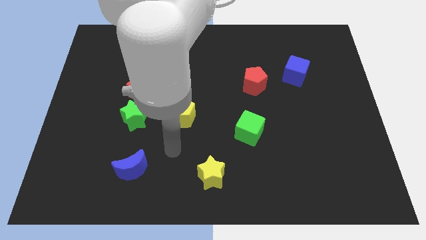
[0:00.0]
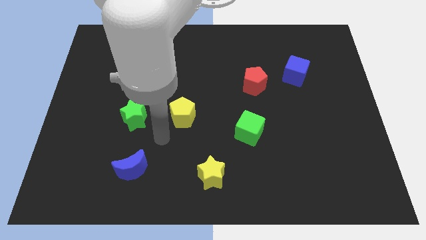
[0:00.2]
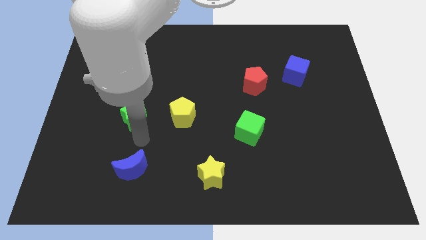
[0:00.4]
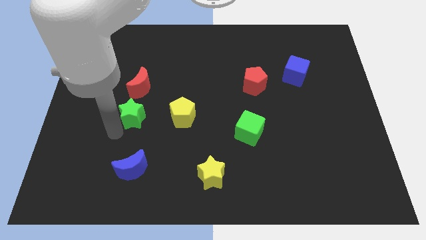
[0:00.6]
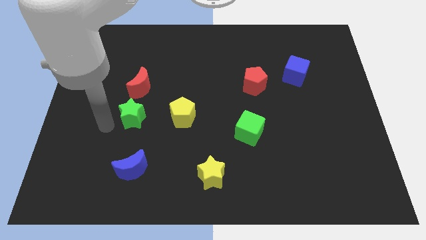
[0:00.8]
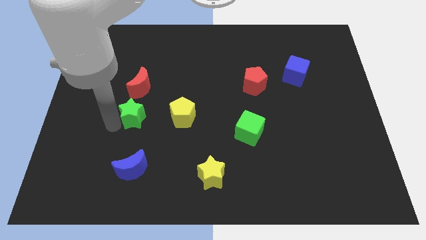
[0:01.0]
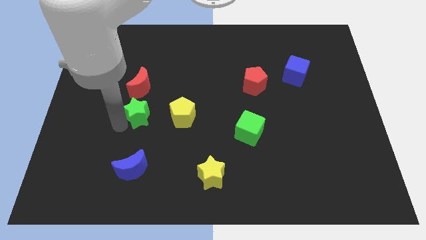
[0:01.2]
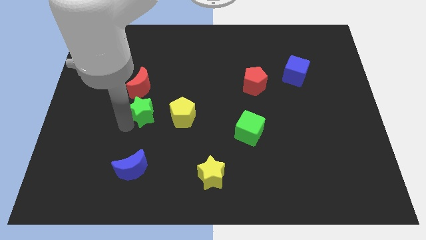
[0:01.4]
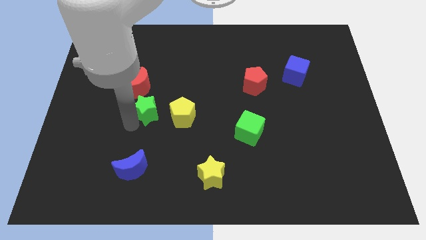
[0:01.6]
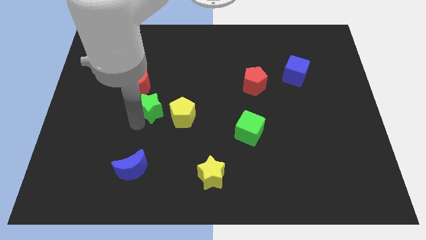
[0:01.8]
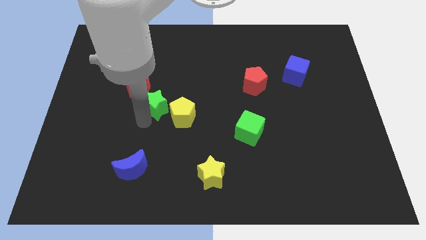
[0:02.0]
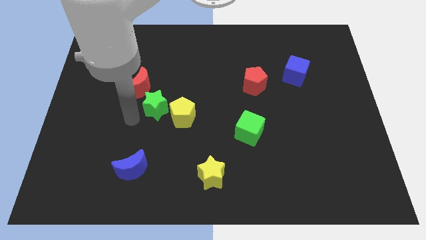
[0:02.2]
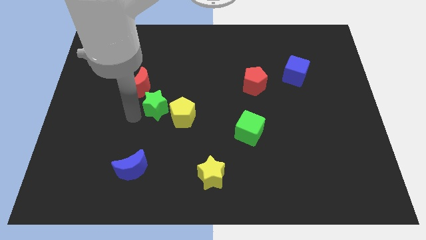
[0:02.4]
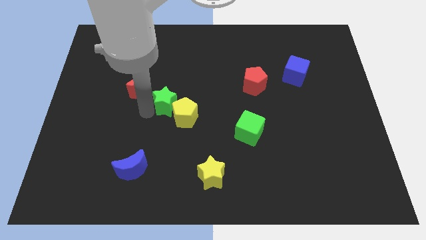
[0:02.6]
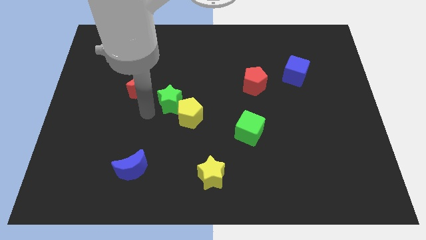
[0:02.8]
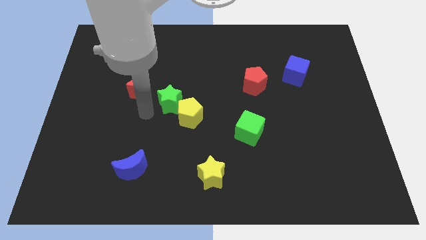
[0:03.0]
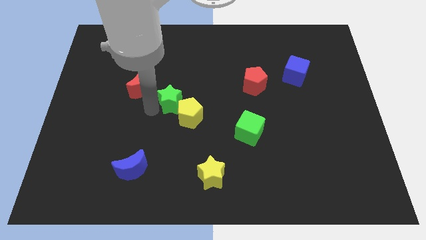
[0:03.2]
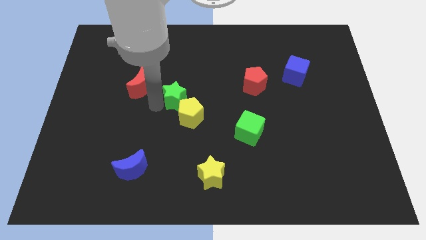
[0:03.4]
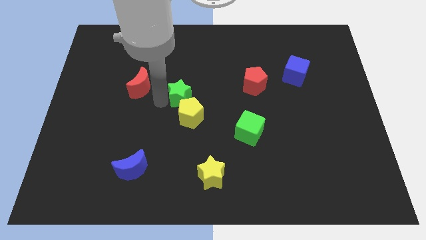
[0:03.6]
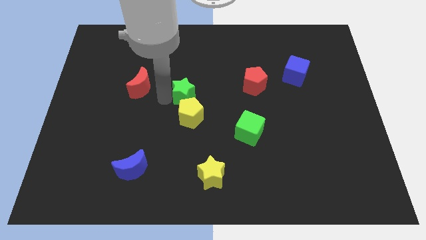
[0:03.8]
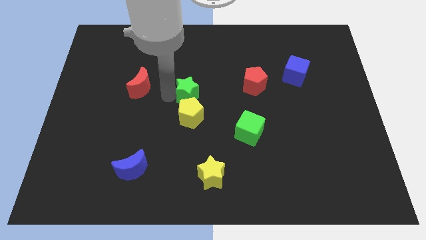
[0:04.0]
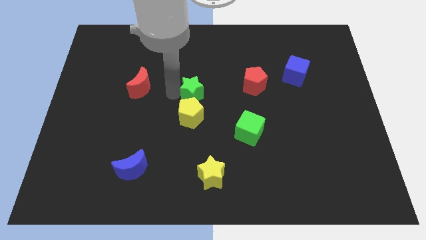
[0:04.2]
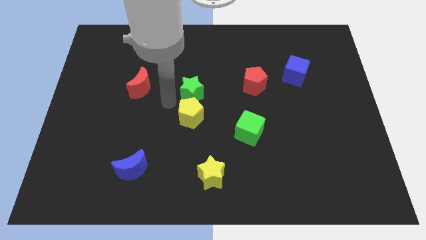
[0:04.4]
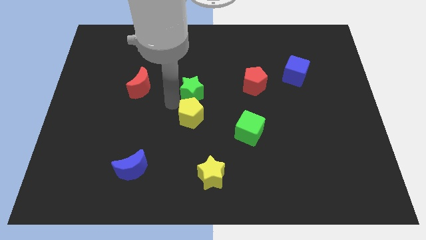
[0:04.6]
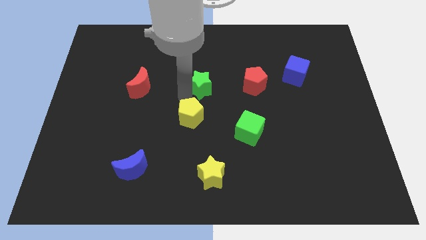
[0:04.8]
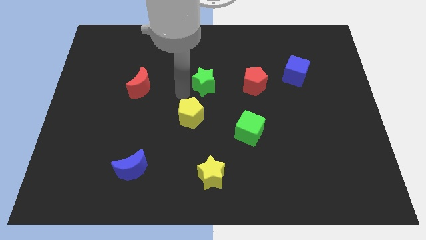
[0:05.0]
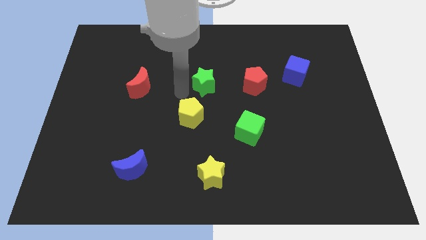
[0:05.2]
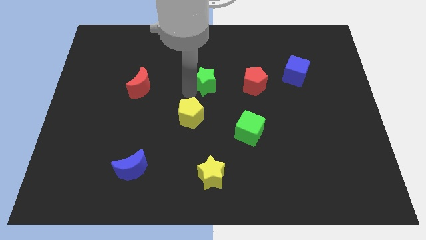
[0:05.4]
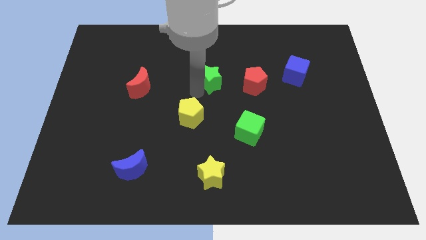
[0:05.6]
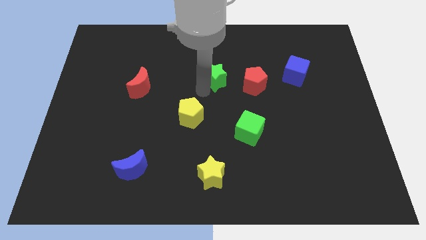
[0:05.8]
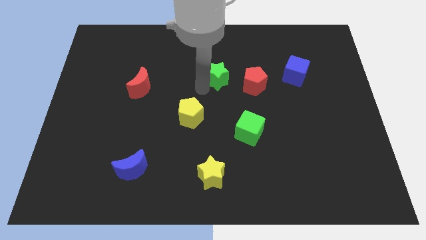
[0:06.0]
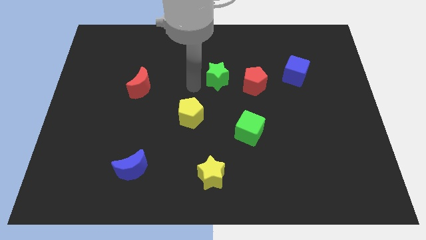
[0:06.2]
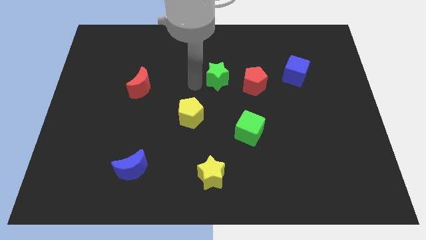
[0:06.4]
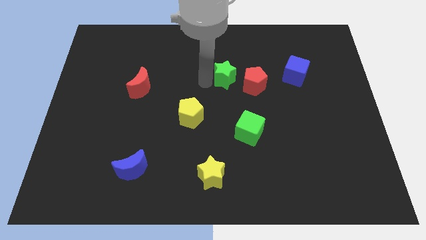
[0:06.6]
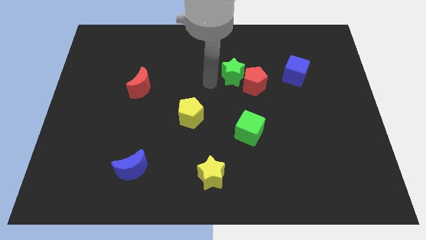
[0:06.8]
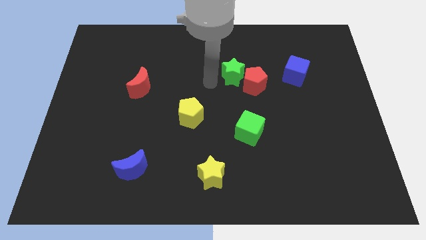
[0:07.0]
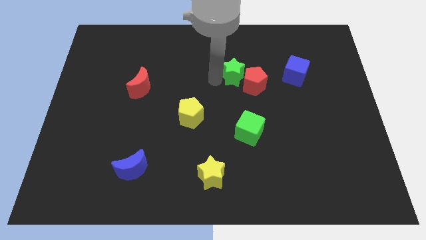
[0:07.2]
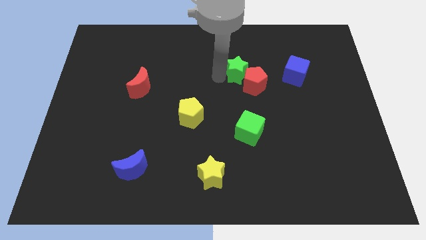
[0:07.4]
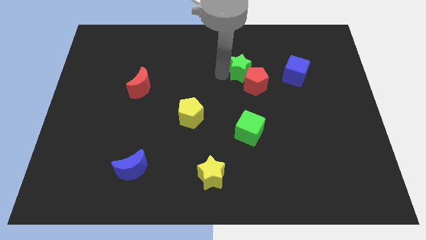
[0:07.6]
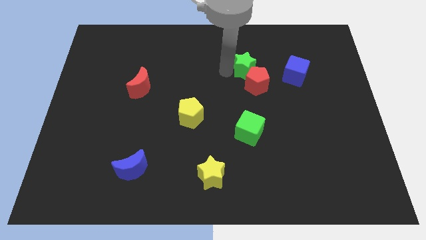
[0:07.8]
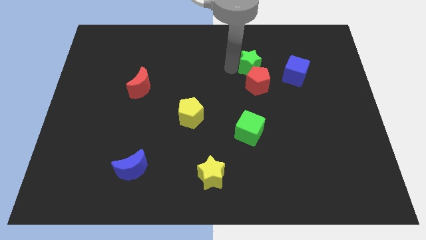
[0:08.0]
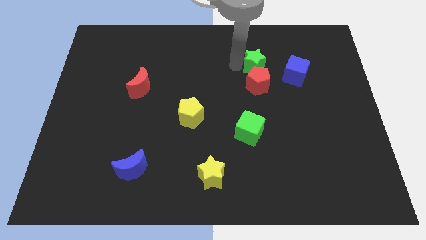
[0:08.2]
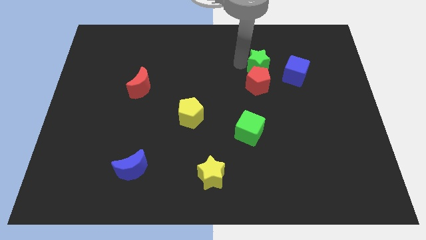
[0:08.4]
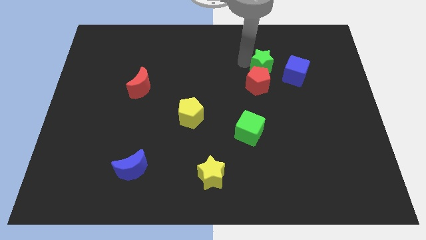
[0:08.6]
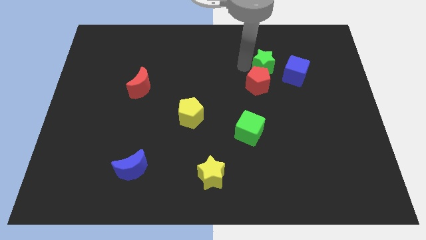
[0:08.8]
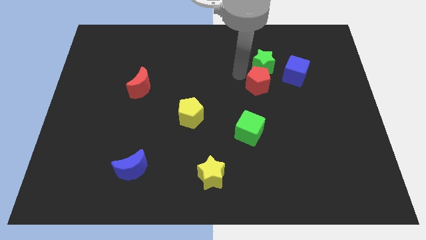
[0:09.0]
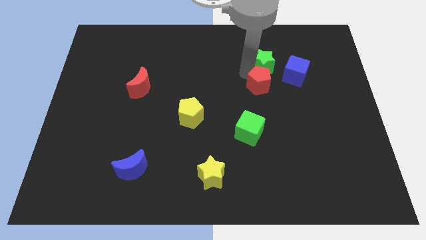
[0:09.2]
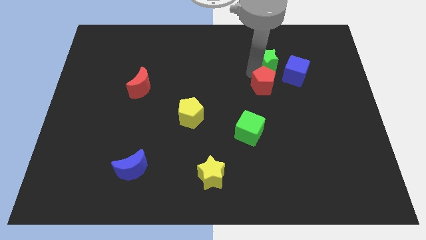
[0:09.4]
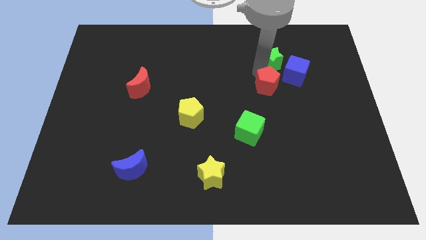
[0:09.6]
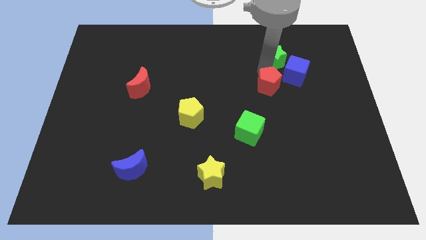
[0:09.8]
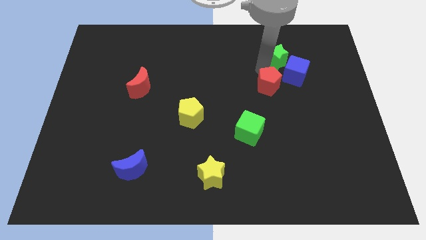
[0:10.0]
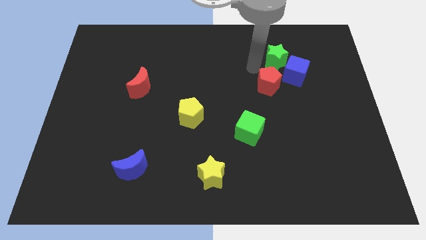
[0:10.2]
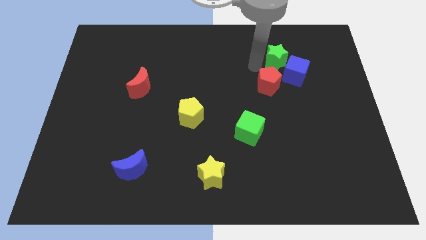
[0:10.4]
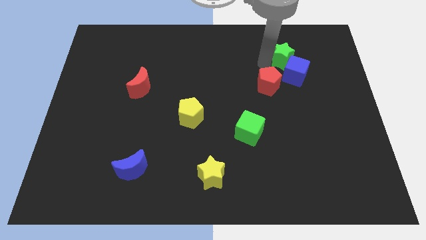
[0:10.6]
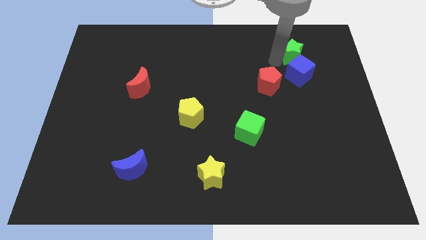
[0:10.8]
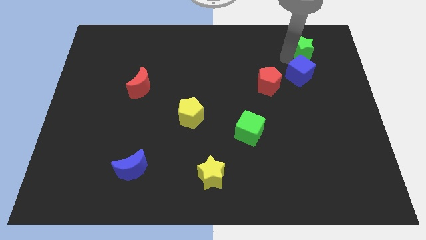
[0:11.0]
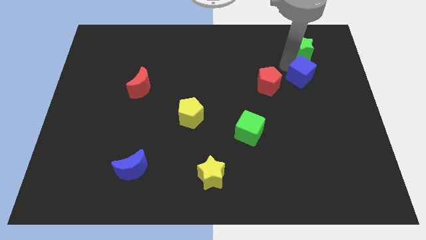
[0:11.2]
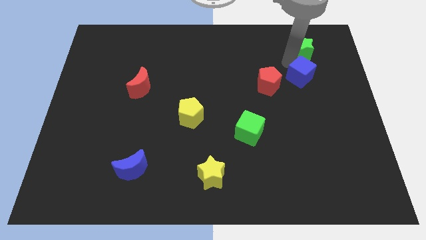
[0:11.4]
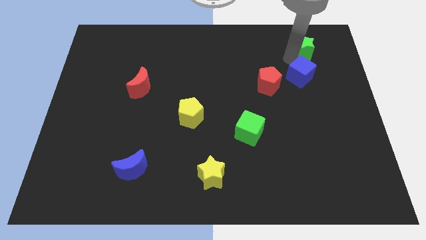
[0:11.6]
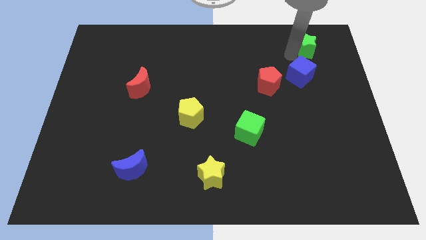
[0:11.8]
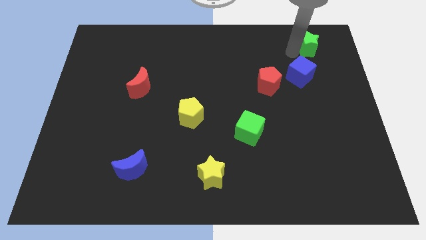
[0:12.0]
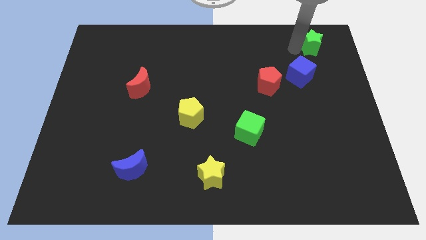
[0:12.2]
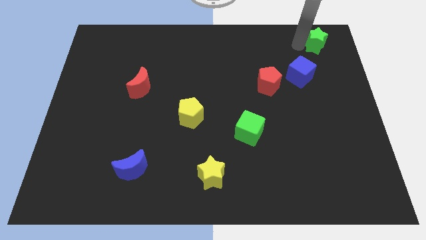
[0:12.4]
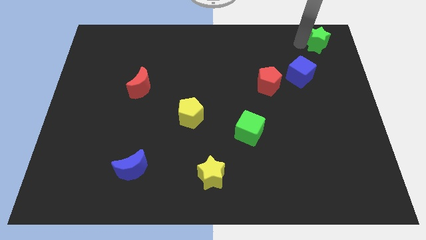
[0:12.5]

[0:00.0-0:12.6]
move the green star to the top right of the board

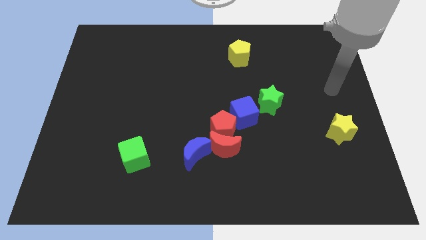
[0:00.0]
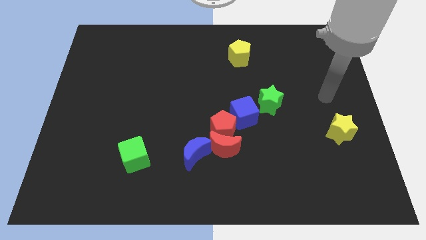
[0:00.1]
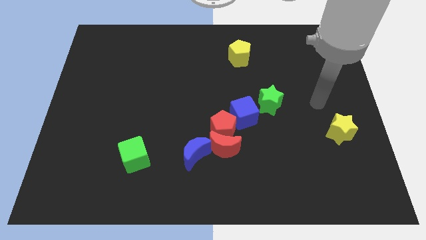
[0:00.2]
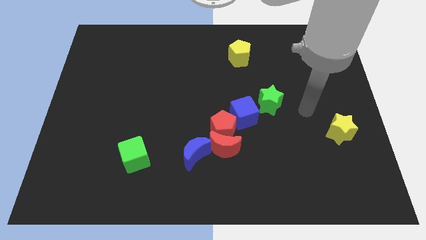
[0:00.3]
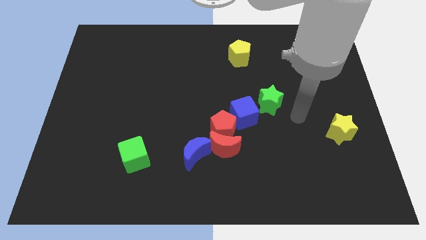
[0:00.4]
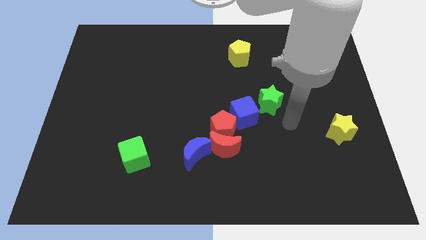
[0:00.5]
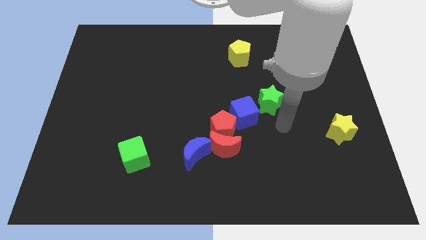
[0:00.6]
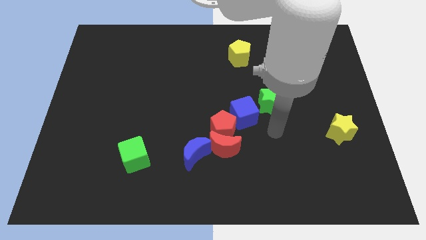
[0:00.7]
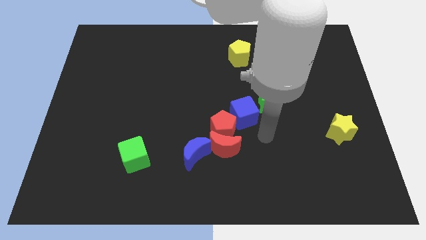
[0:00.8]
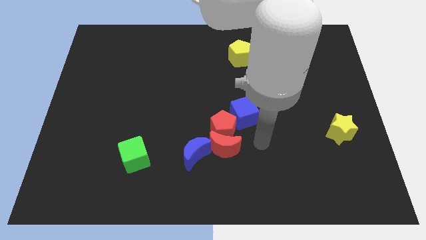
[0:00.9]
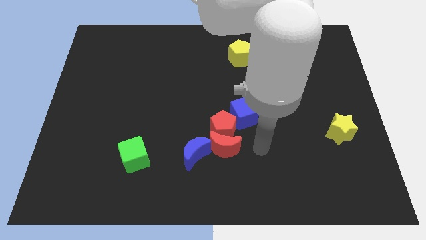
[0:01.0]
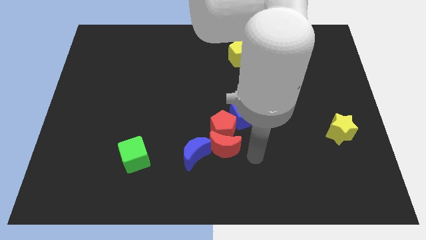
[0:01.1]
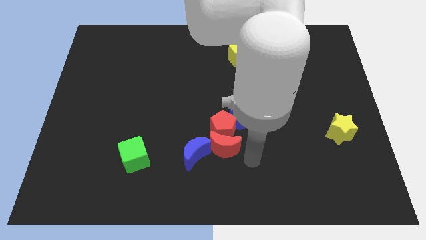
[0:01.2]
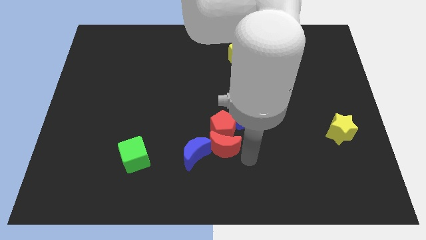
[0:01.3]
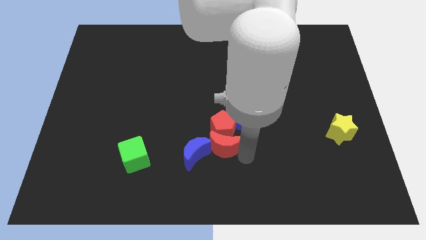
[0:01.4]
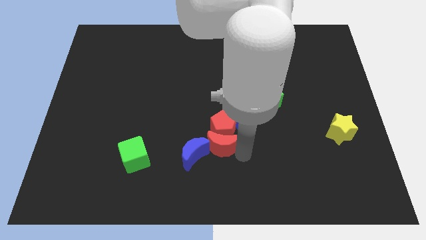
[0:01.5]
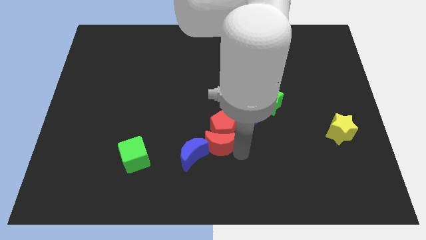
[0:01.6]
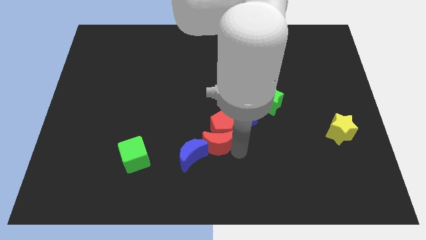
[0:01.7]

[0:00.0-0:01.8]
slide the red moon to the center of the board
